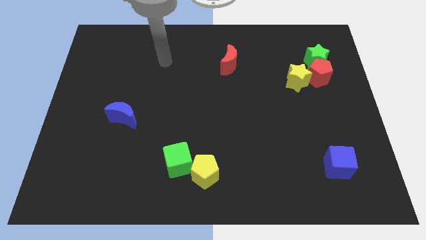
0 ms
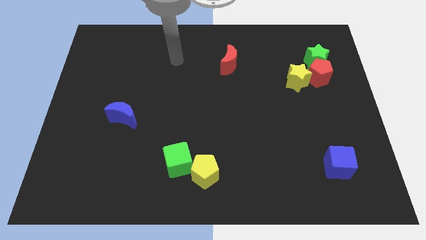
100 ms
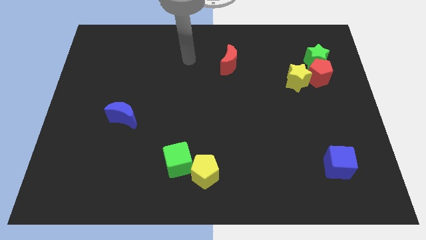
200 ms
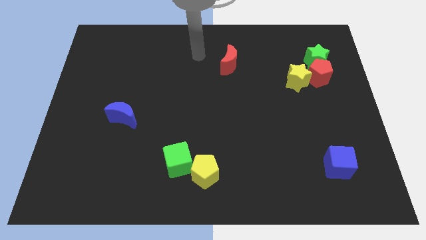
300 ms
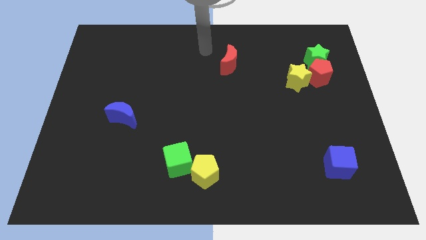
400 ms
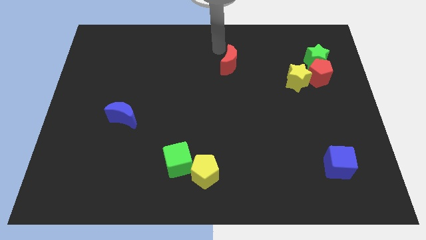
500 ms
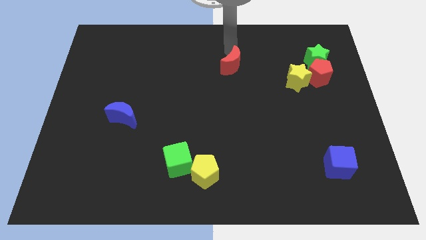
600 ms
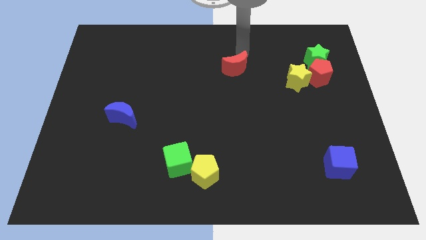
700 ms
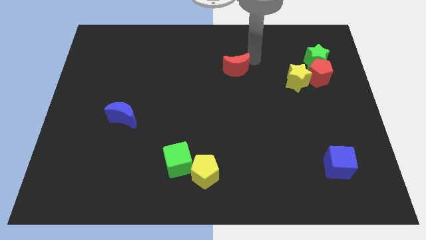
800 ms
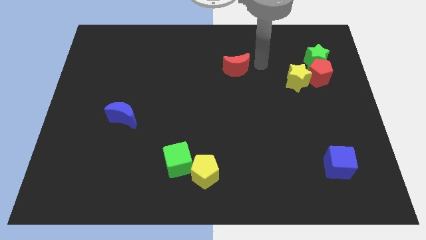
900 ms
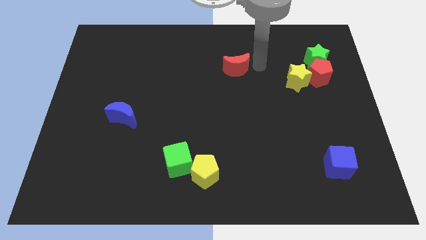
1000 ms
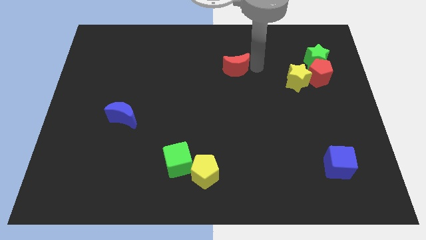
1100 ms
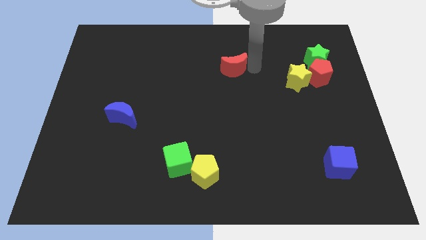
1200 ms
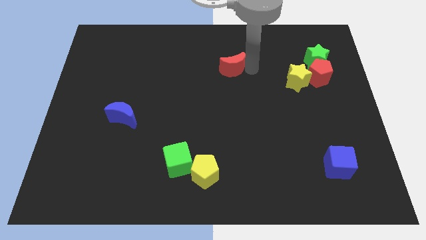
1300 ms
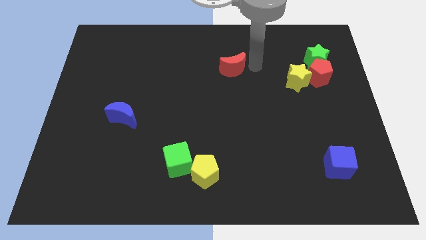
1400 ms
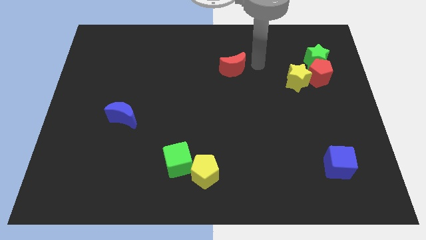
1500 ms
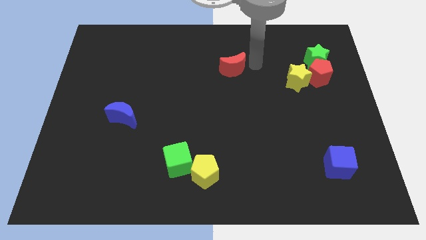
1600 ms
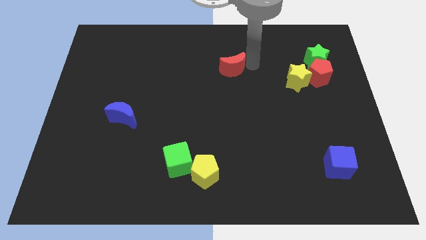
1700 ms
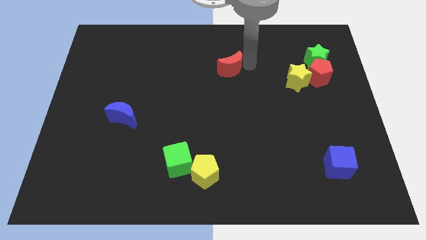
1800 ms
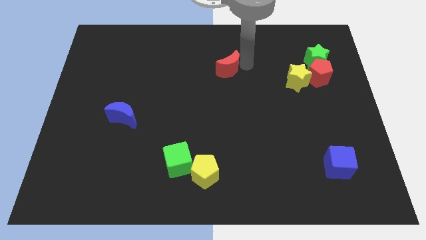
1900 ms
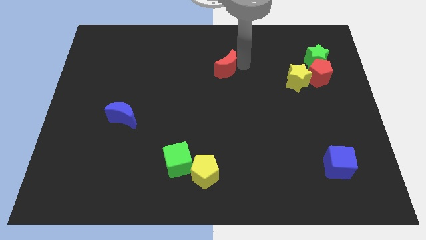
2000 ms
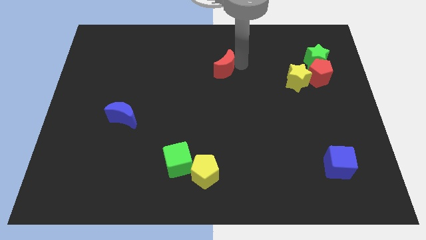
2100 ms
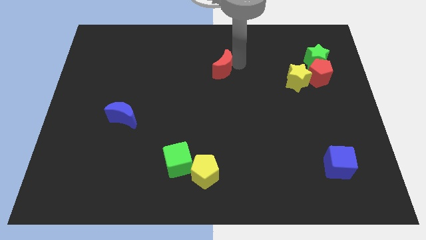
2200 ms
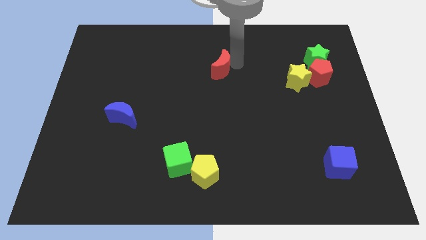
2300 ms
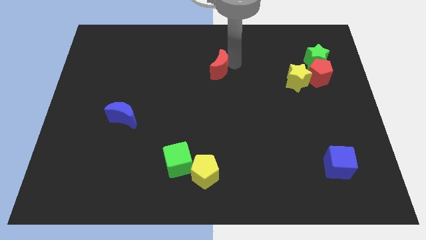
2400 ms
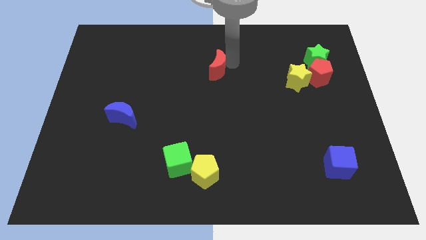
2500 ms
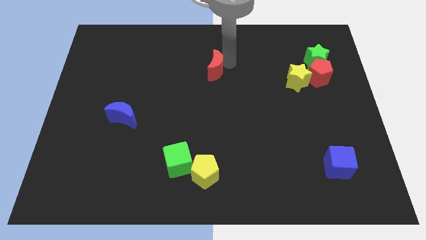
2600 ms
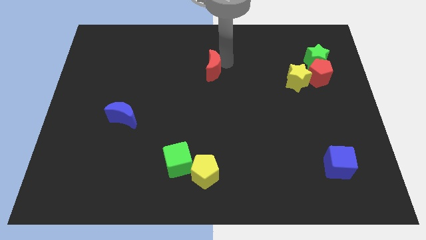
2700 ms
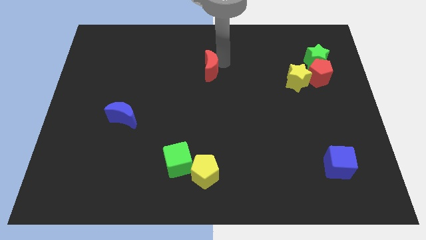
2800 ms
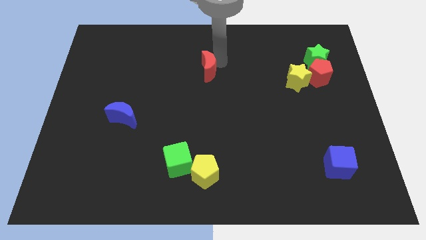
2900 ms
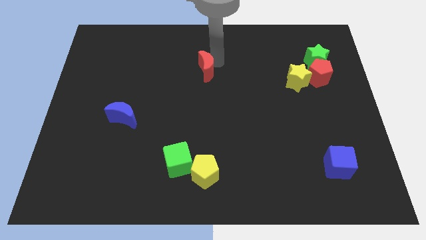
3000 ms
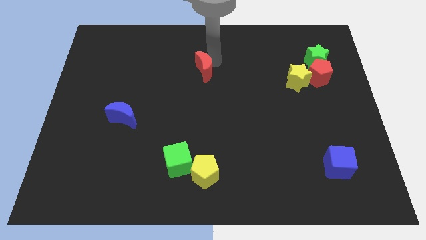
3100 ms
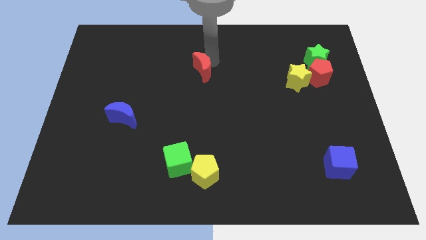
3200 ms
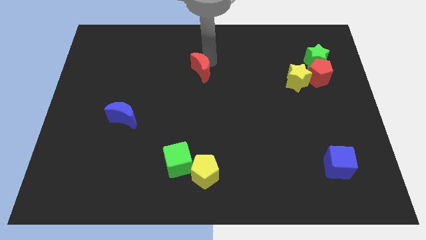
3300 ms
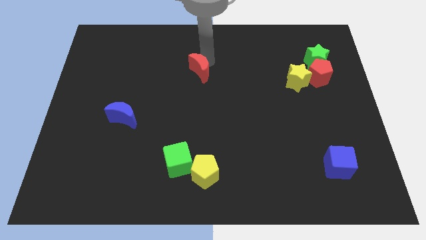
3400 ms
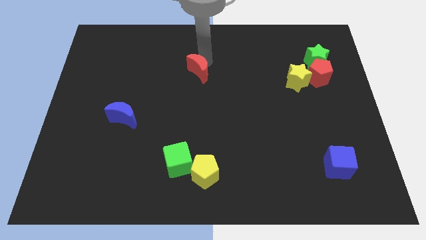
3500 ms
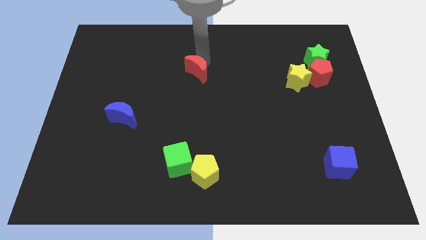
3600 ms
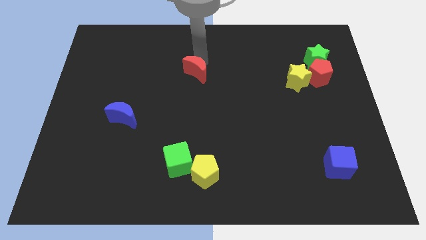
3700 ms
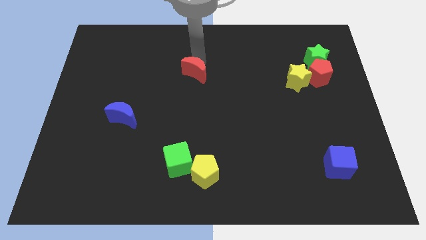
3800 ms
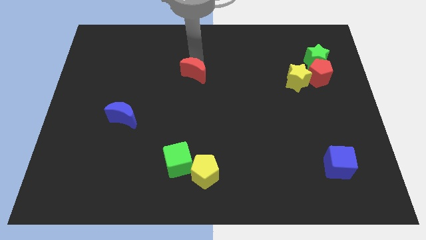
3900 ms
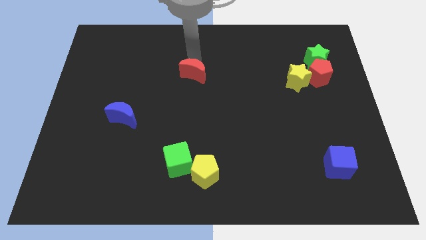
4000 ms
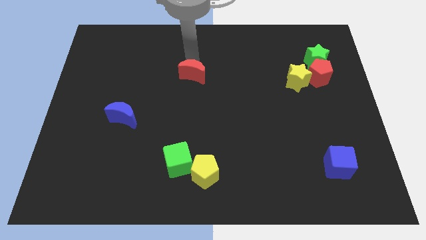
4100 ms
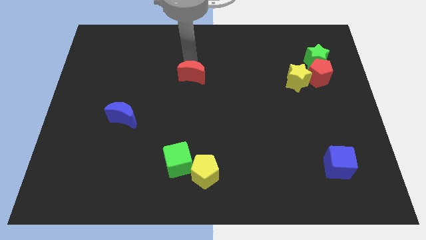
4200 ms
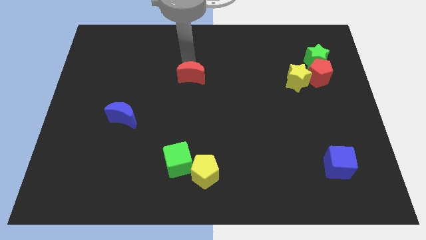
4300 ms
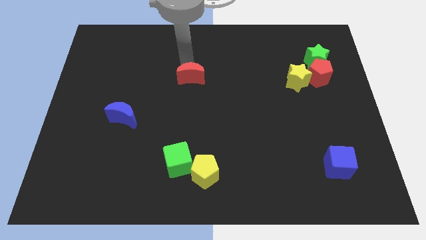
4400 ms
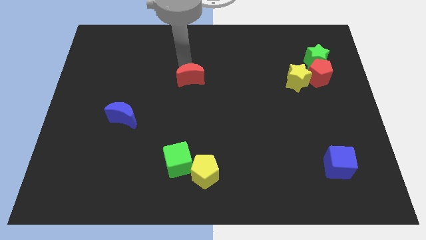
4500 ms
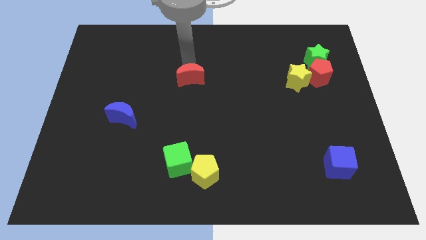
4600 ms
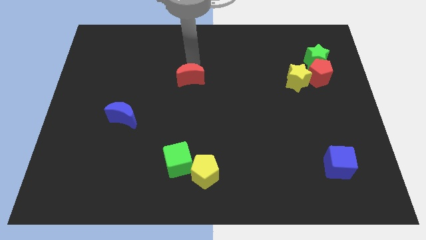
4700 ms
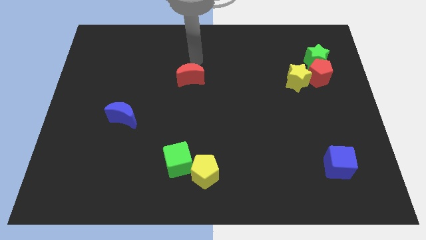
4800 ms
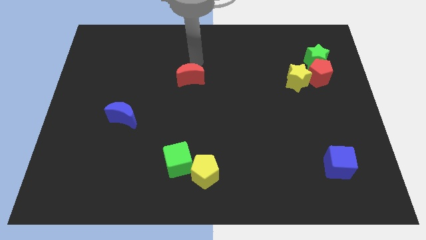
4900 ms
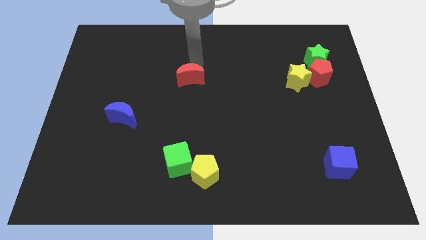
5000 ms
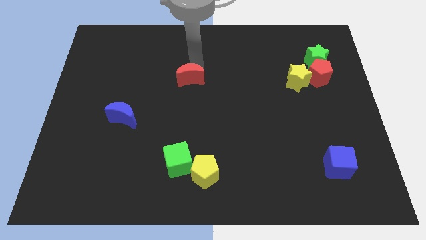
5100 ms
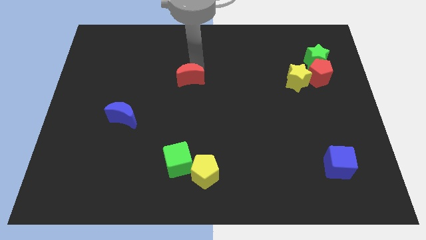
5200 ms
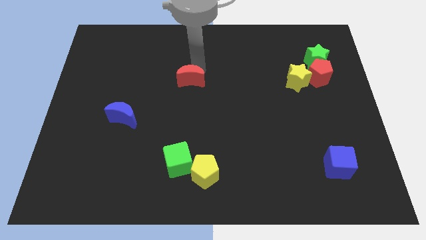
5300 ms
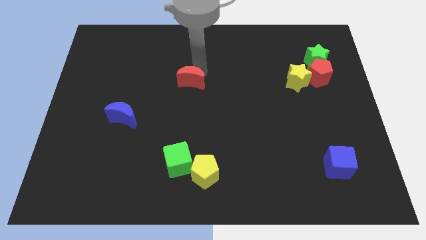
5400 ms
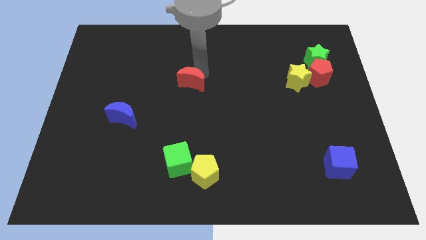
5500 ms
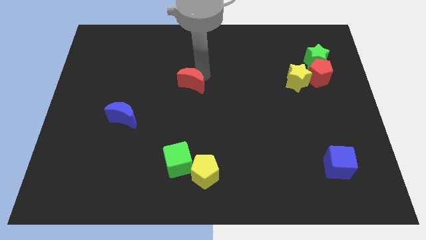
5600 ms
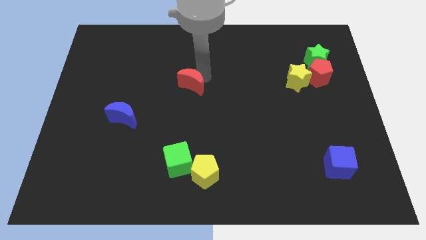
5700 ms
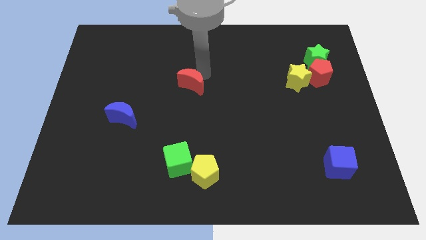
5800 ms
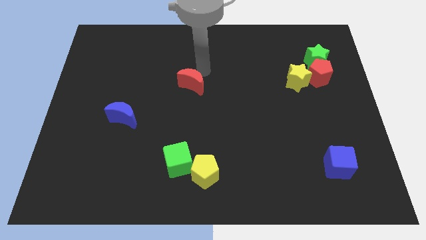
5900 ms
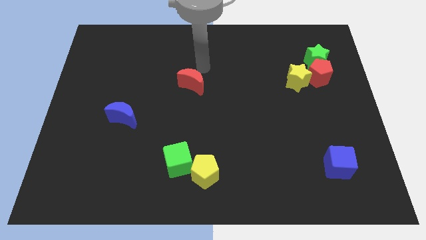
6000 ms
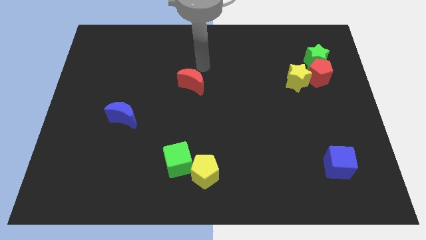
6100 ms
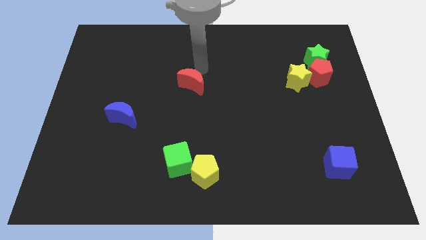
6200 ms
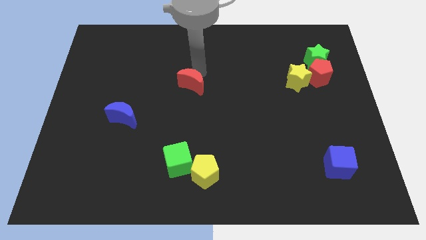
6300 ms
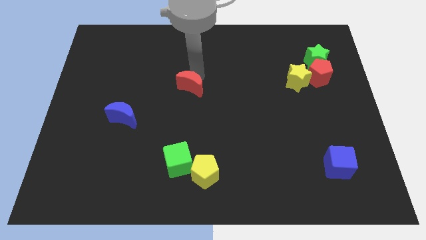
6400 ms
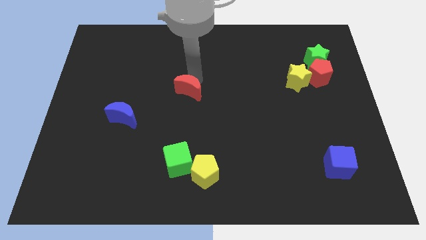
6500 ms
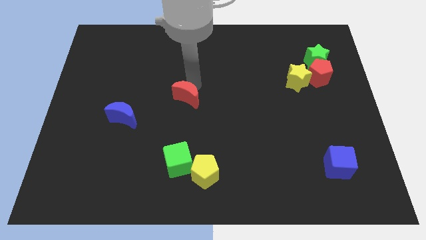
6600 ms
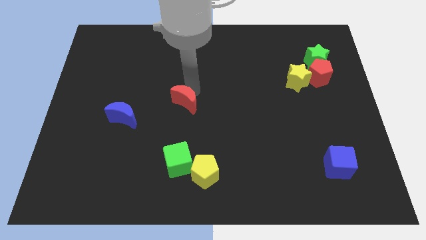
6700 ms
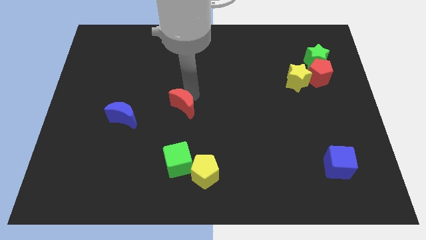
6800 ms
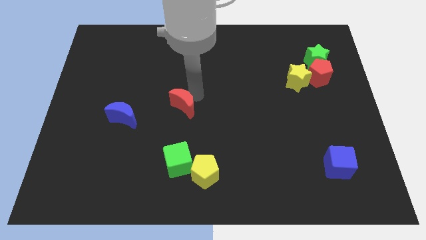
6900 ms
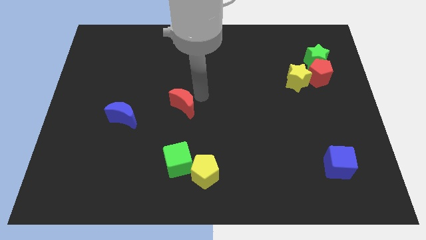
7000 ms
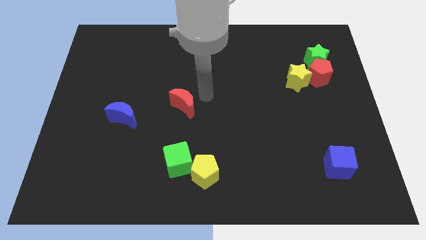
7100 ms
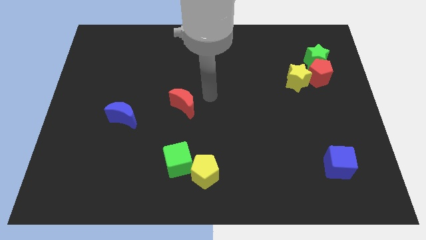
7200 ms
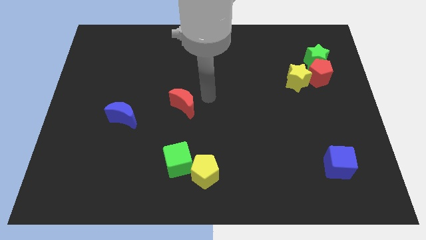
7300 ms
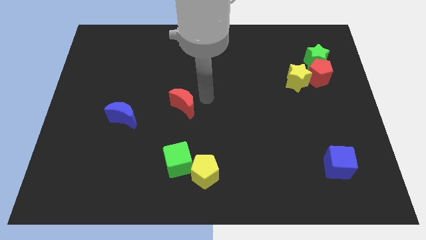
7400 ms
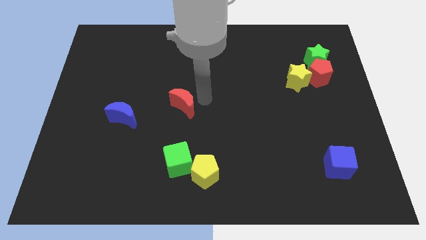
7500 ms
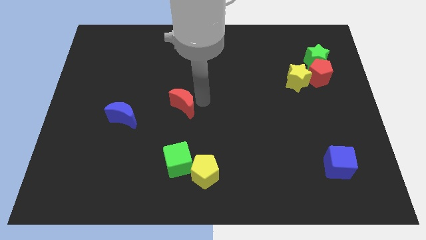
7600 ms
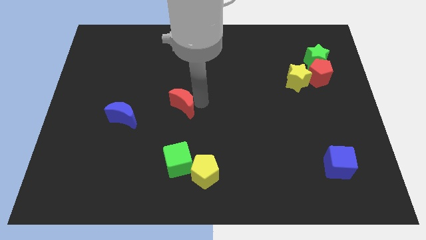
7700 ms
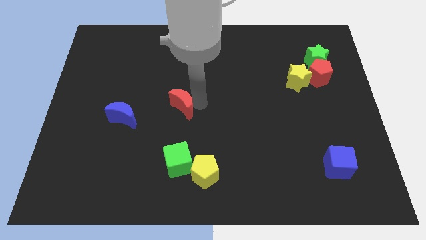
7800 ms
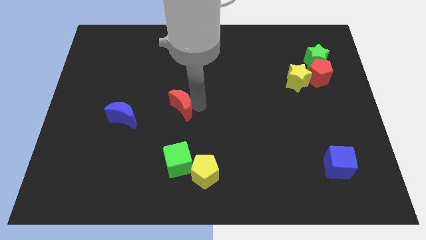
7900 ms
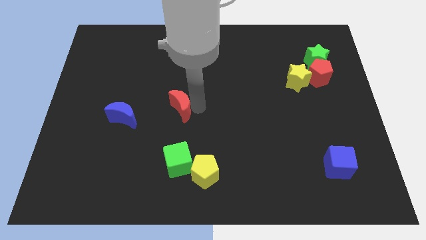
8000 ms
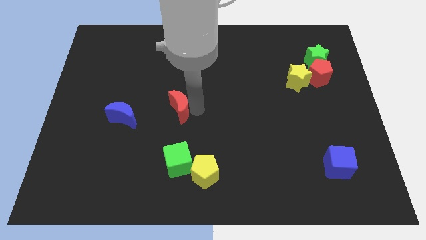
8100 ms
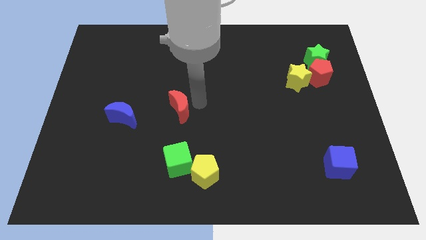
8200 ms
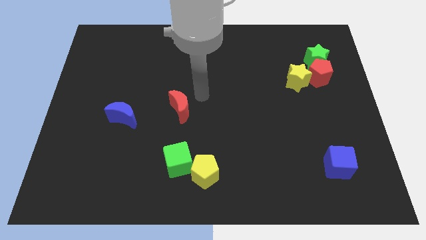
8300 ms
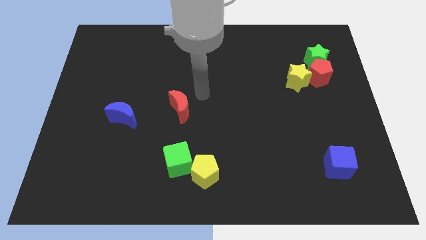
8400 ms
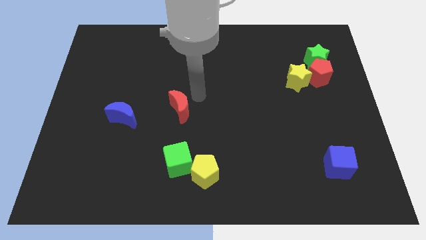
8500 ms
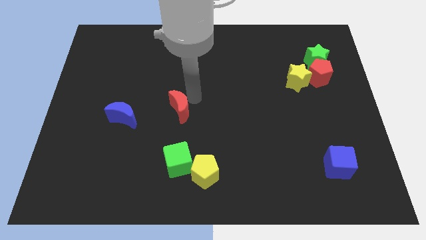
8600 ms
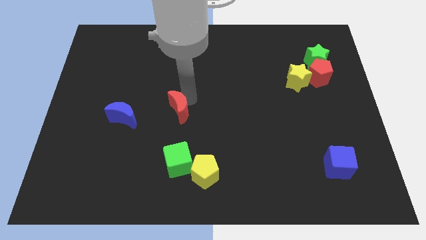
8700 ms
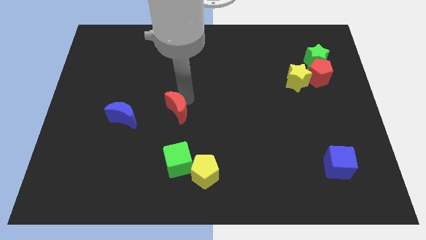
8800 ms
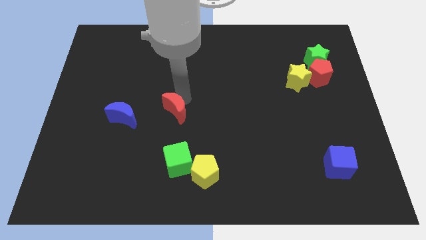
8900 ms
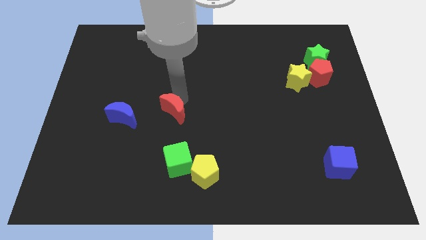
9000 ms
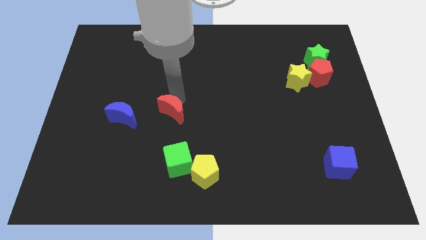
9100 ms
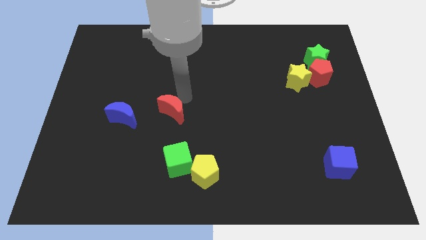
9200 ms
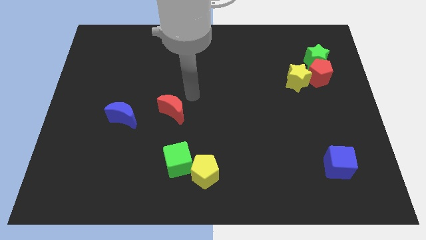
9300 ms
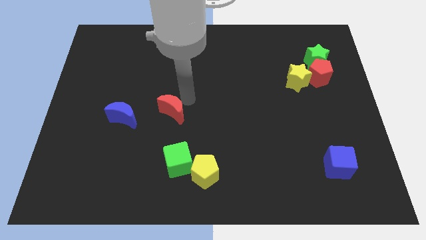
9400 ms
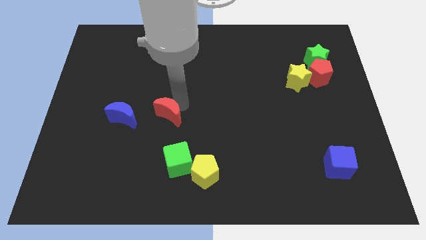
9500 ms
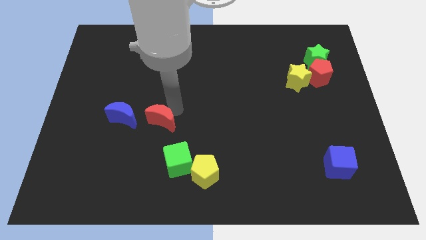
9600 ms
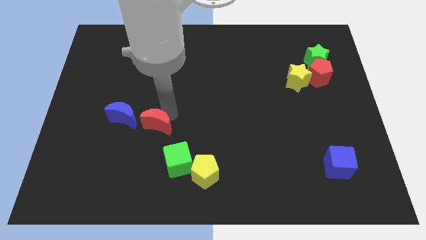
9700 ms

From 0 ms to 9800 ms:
push the red moon diagonally down and to the right of the blue moon
